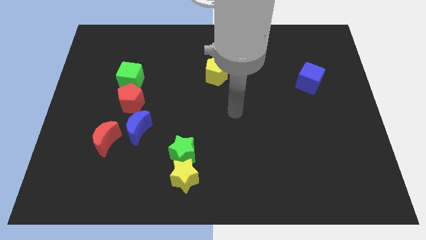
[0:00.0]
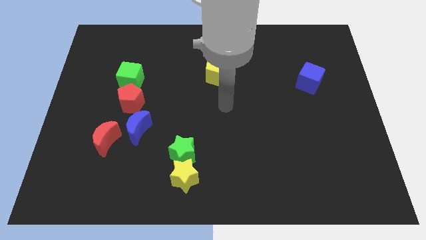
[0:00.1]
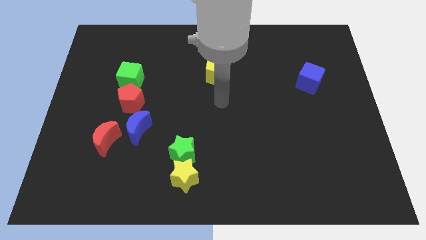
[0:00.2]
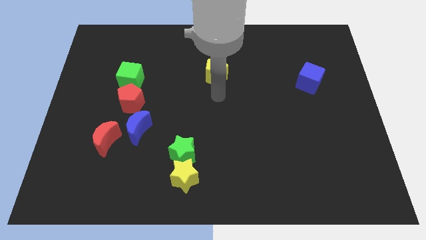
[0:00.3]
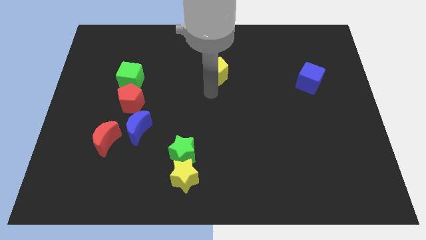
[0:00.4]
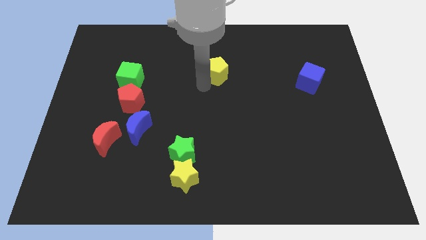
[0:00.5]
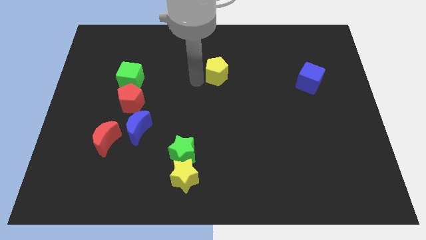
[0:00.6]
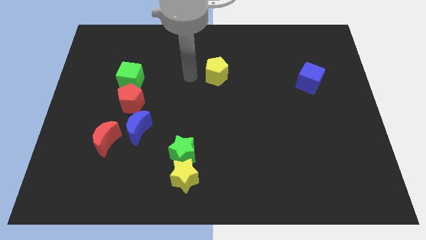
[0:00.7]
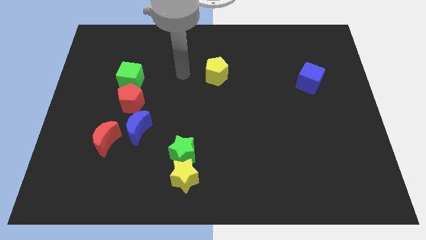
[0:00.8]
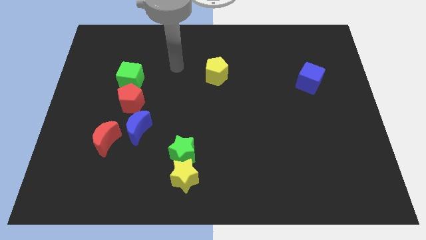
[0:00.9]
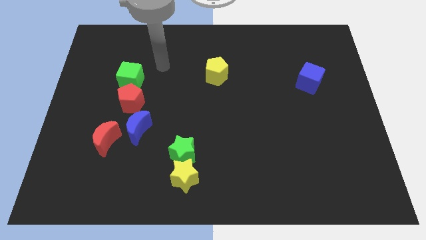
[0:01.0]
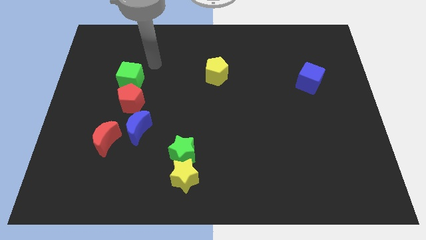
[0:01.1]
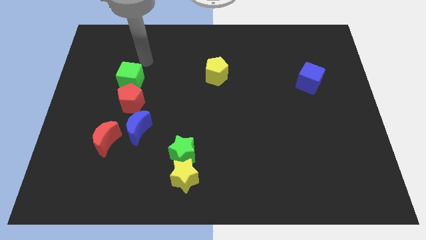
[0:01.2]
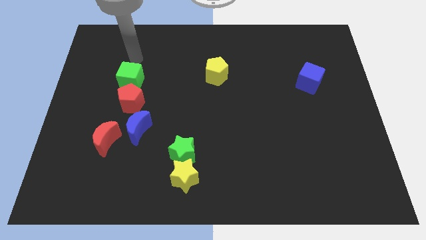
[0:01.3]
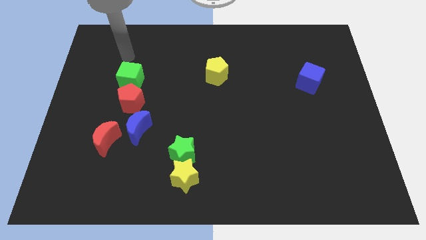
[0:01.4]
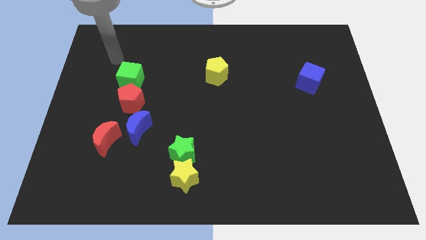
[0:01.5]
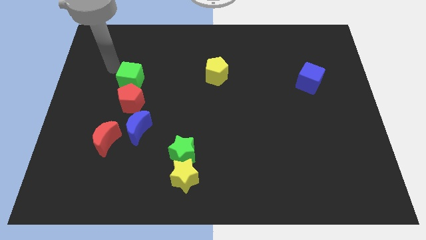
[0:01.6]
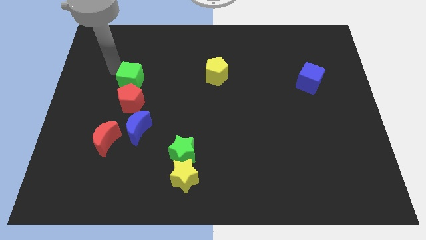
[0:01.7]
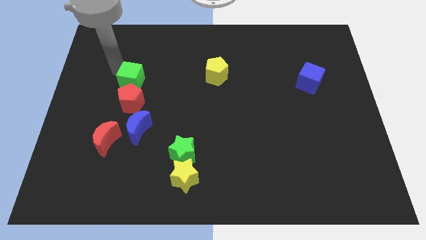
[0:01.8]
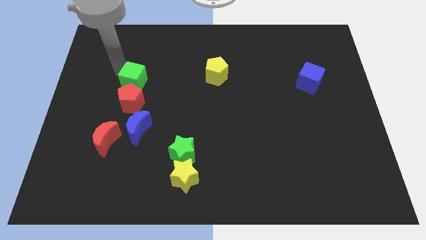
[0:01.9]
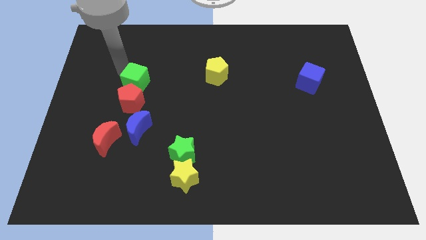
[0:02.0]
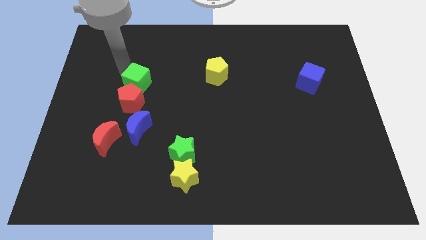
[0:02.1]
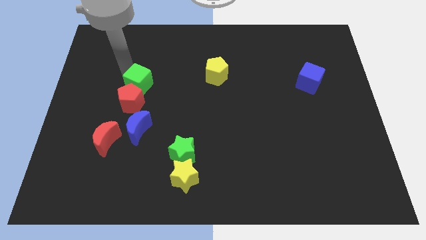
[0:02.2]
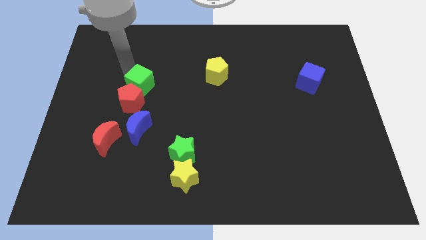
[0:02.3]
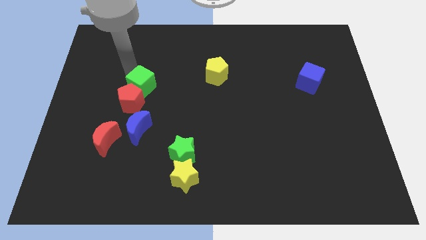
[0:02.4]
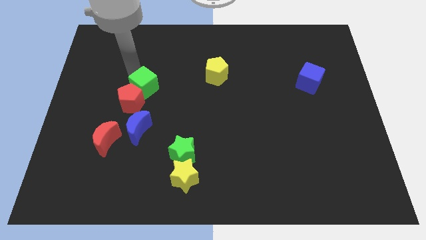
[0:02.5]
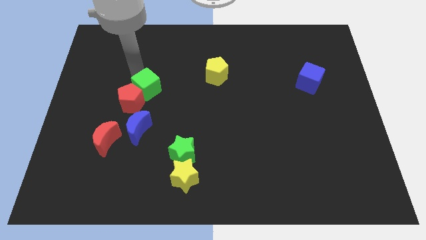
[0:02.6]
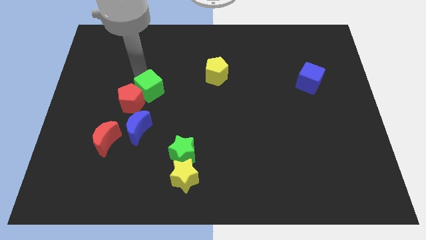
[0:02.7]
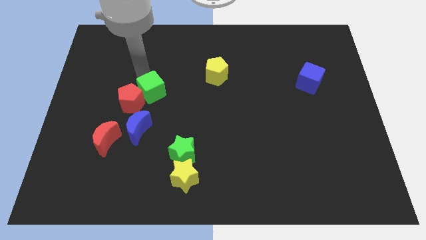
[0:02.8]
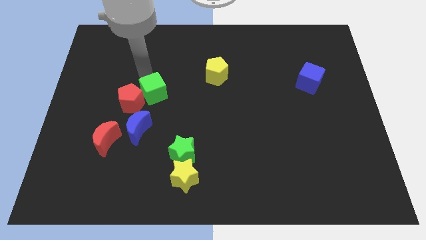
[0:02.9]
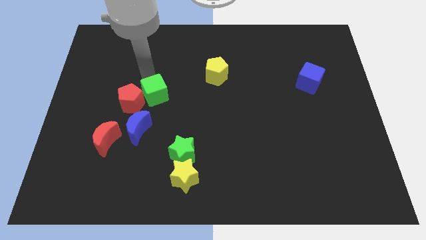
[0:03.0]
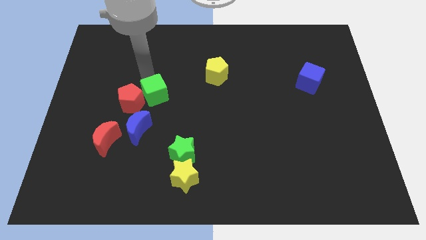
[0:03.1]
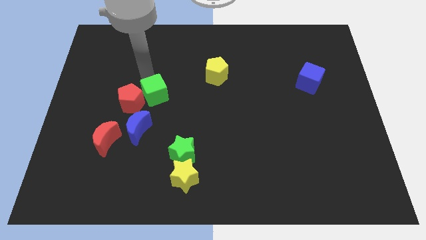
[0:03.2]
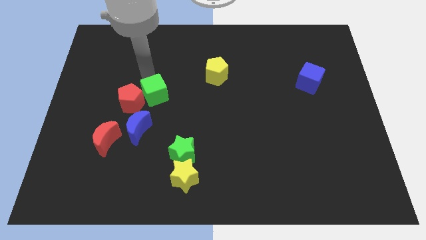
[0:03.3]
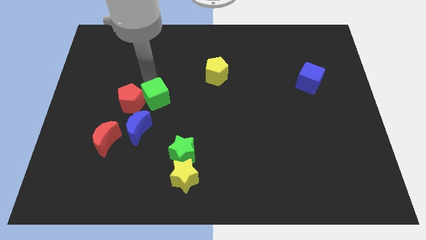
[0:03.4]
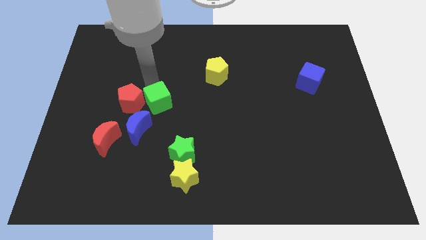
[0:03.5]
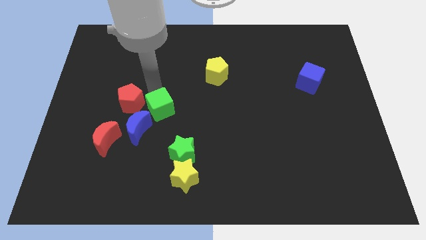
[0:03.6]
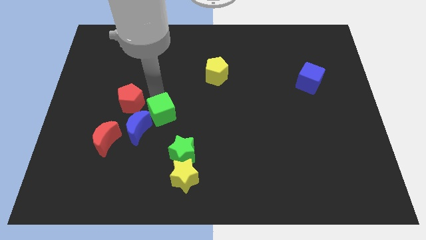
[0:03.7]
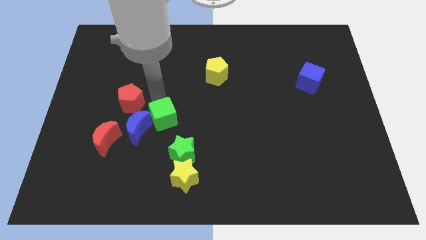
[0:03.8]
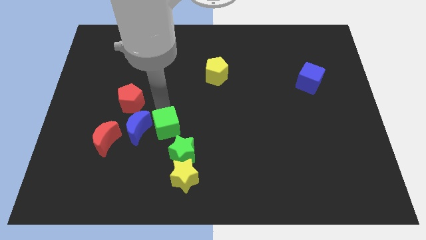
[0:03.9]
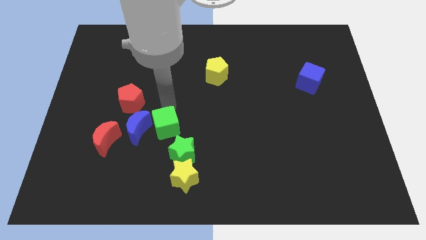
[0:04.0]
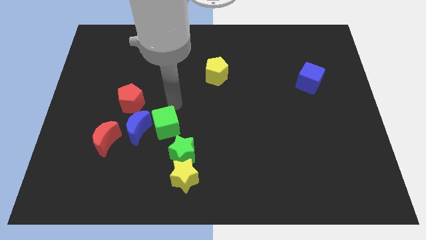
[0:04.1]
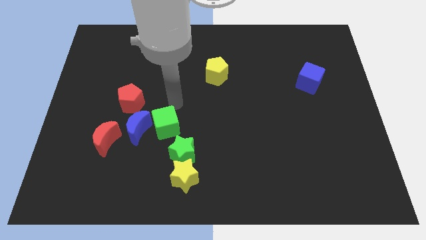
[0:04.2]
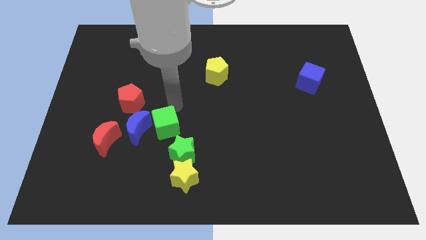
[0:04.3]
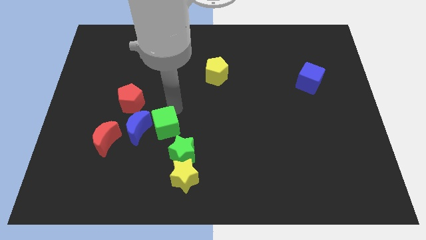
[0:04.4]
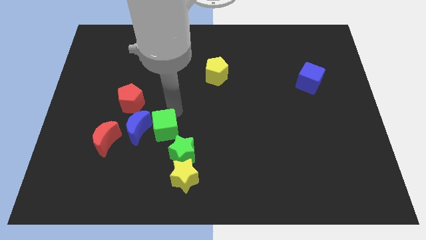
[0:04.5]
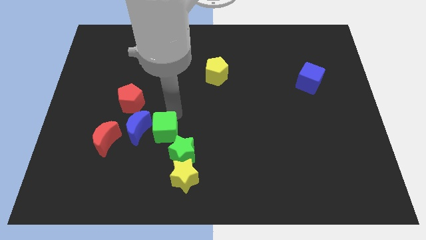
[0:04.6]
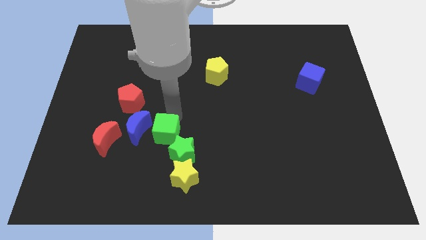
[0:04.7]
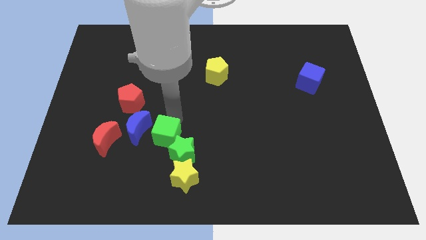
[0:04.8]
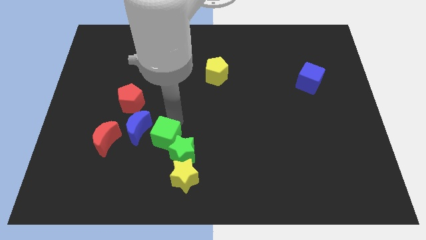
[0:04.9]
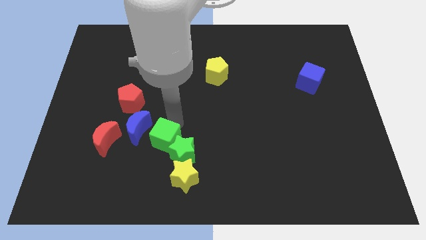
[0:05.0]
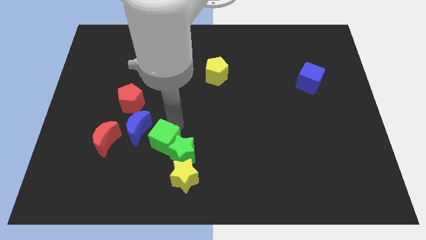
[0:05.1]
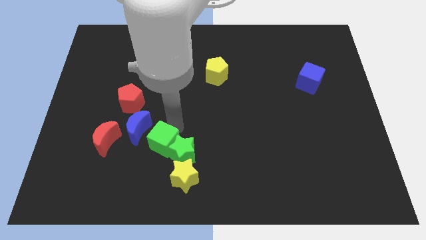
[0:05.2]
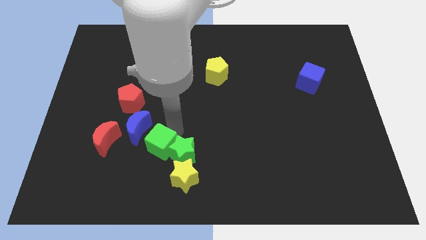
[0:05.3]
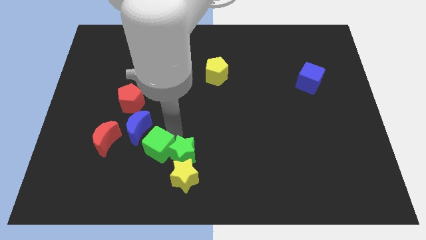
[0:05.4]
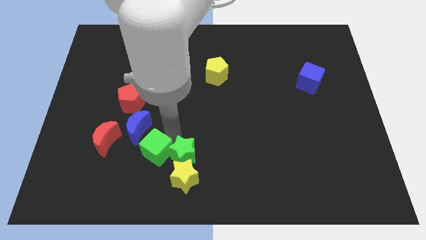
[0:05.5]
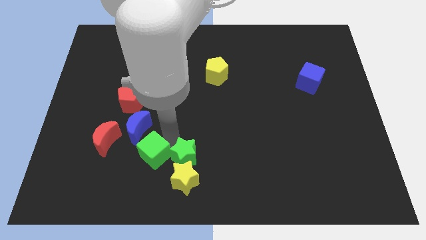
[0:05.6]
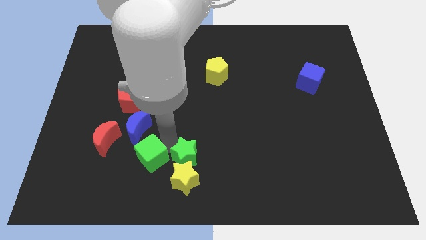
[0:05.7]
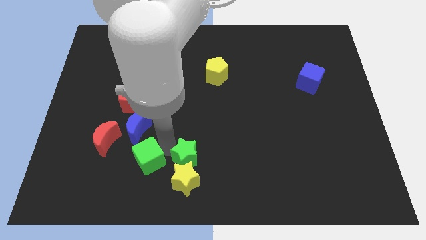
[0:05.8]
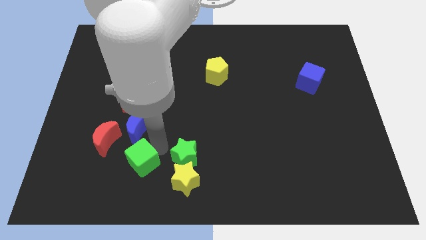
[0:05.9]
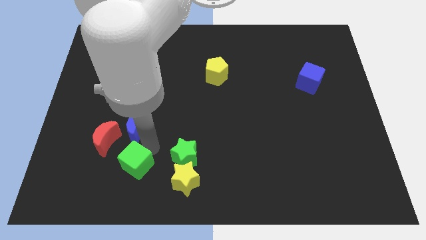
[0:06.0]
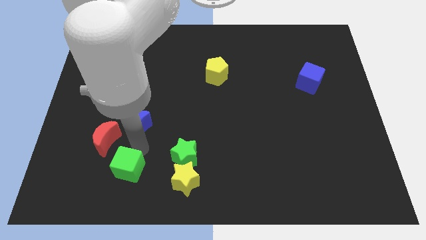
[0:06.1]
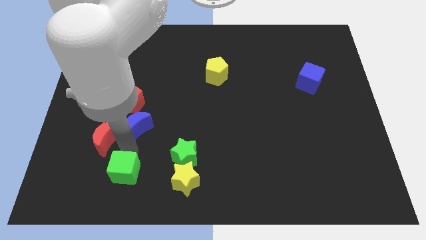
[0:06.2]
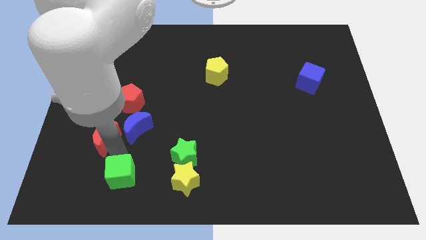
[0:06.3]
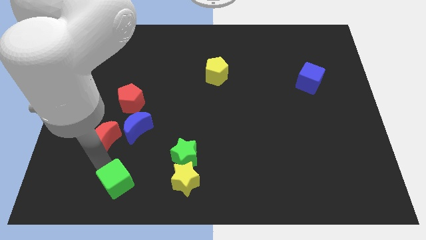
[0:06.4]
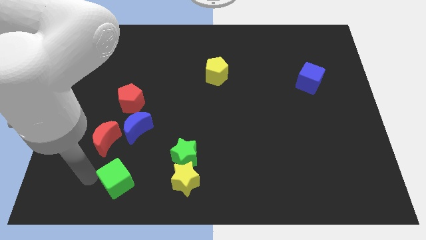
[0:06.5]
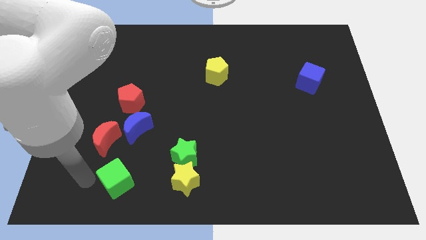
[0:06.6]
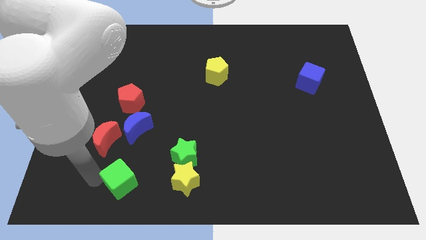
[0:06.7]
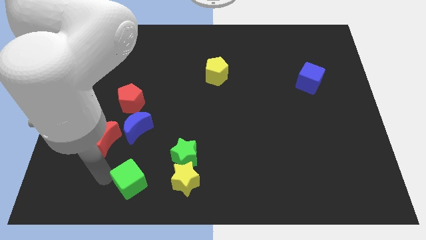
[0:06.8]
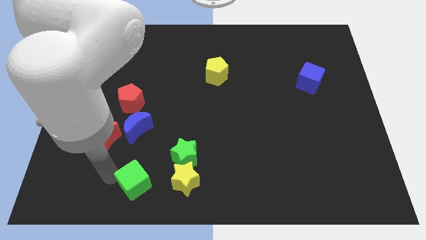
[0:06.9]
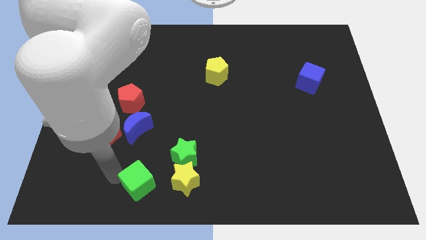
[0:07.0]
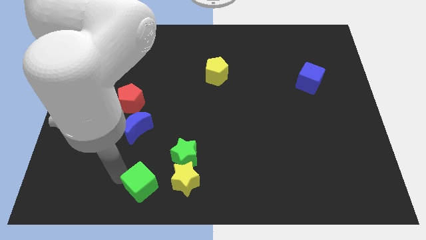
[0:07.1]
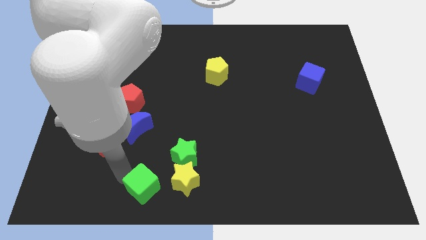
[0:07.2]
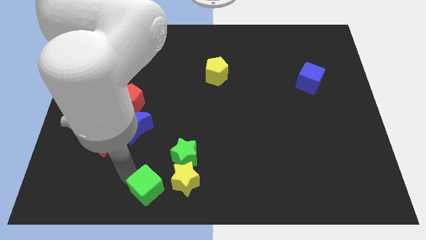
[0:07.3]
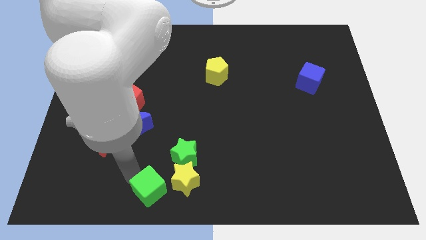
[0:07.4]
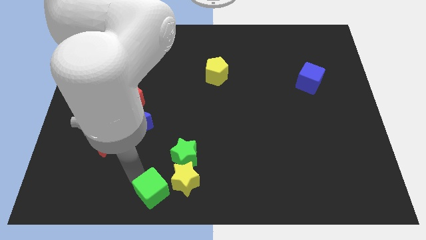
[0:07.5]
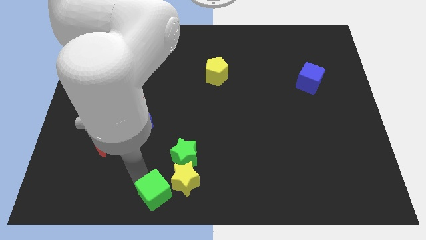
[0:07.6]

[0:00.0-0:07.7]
put the green cube to the yellow star
